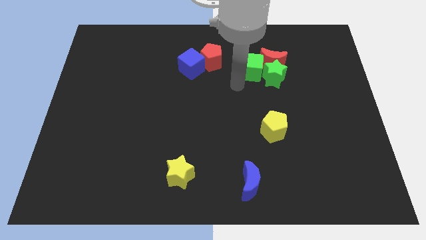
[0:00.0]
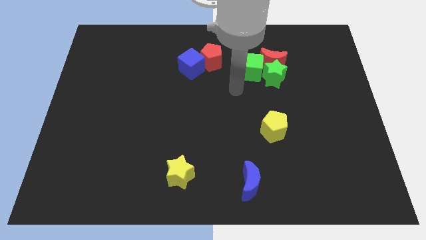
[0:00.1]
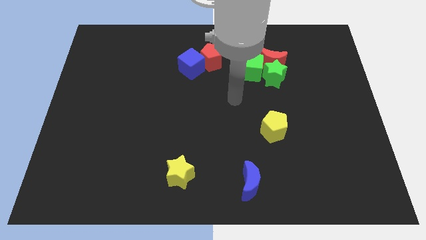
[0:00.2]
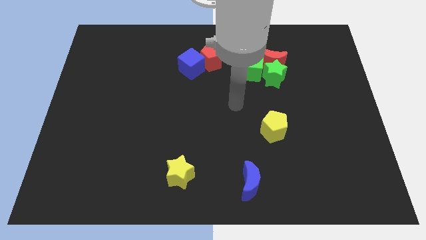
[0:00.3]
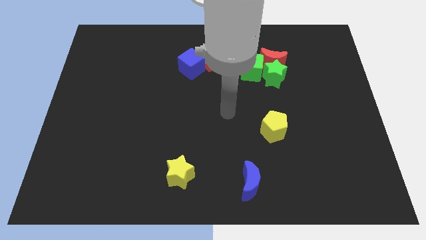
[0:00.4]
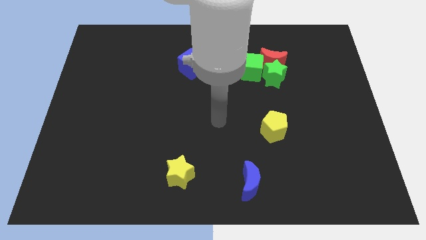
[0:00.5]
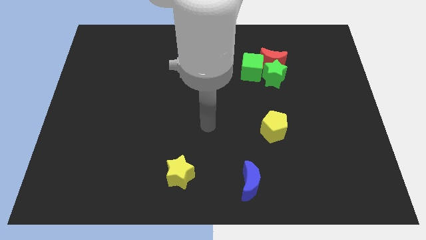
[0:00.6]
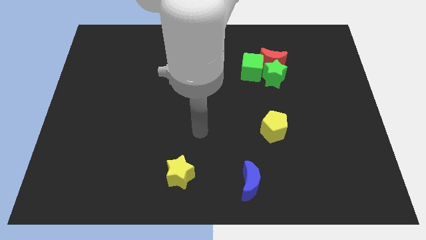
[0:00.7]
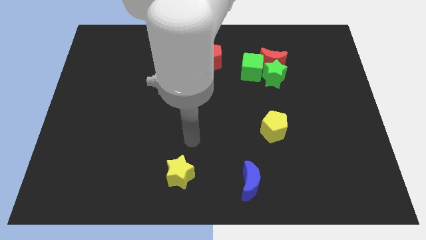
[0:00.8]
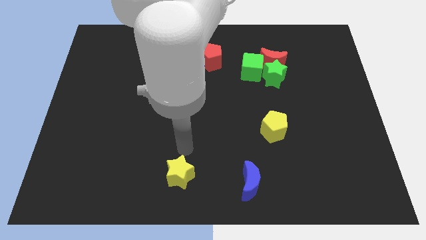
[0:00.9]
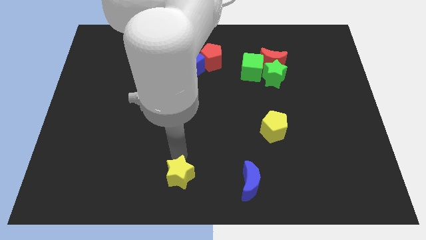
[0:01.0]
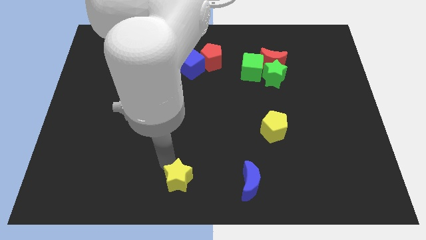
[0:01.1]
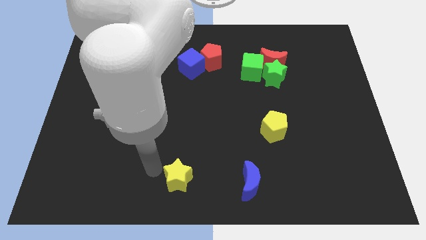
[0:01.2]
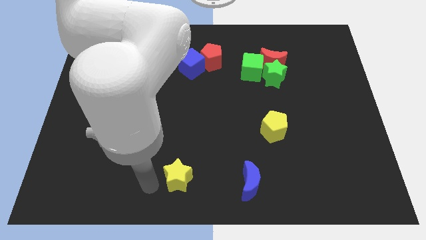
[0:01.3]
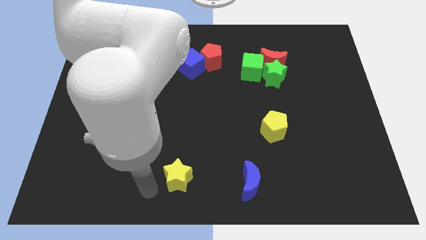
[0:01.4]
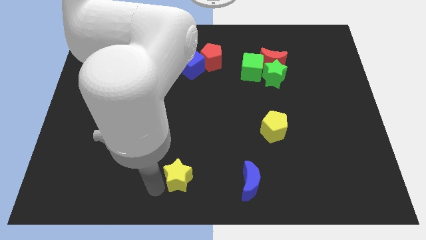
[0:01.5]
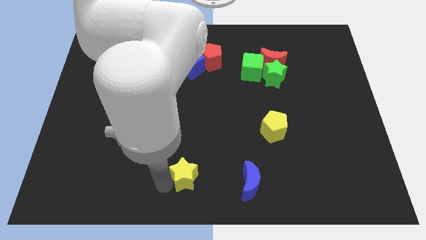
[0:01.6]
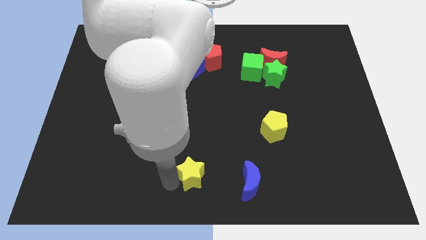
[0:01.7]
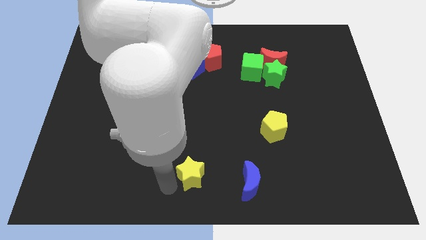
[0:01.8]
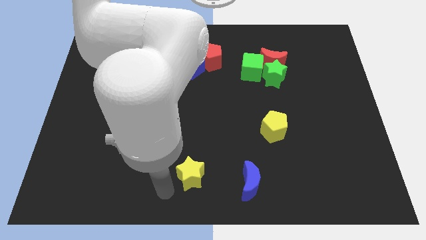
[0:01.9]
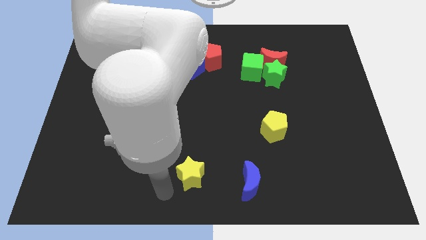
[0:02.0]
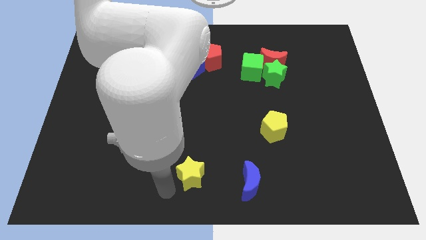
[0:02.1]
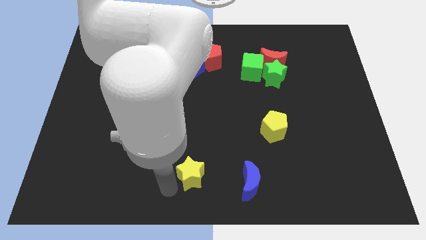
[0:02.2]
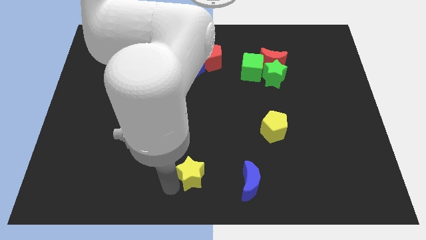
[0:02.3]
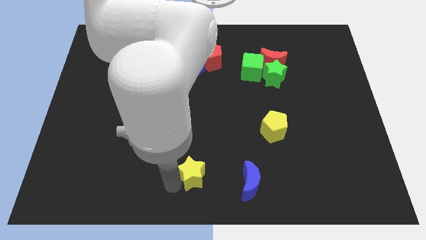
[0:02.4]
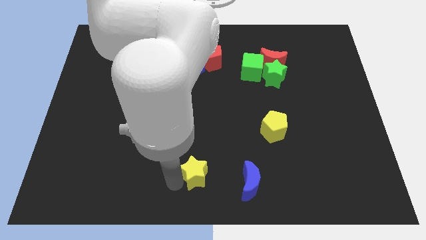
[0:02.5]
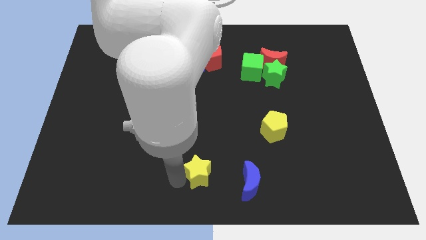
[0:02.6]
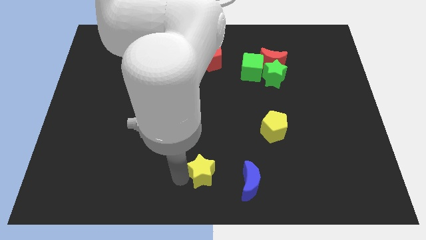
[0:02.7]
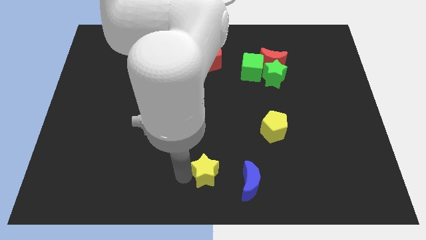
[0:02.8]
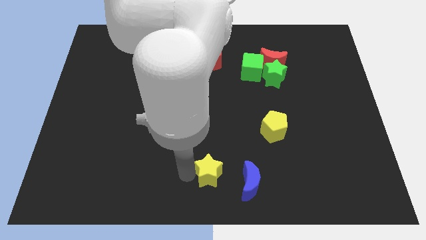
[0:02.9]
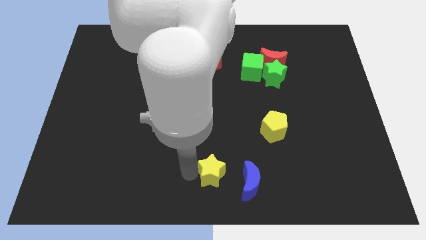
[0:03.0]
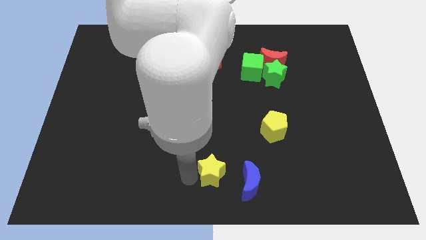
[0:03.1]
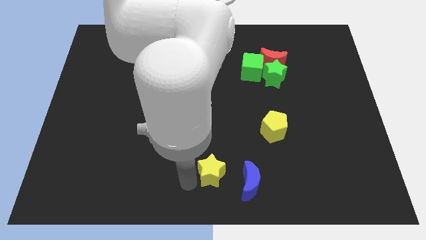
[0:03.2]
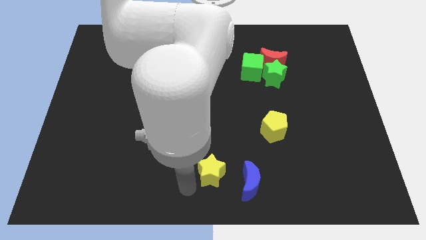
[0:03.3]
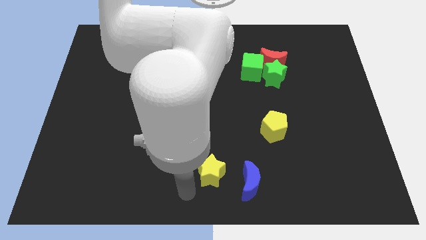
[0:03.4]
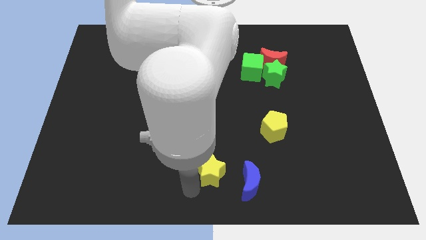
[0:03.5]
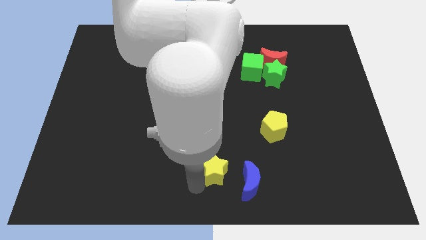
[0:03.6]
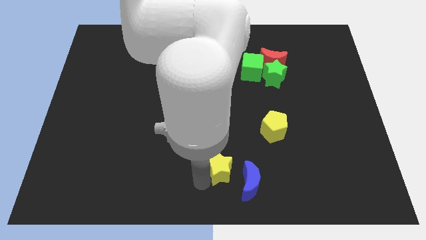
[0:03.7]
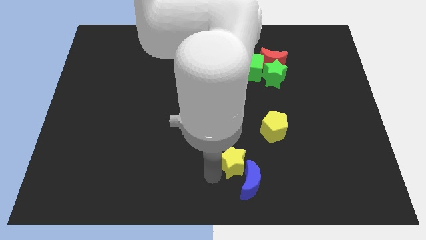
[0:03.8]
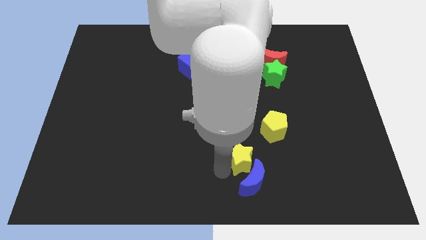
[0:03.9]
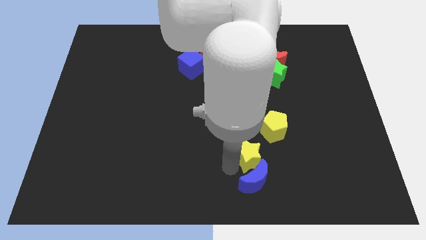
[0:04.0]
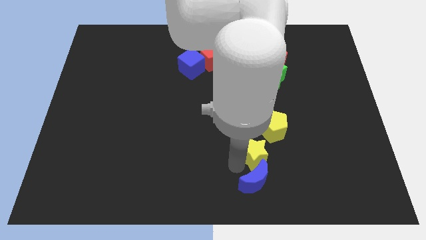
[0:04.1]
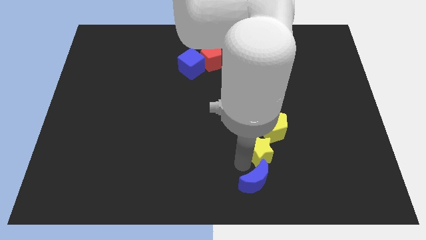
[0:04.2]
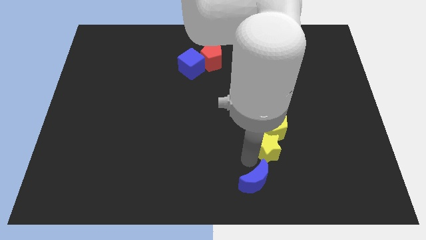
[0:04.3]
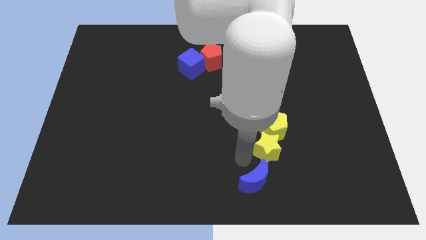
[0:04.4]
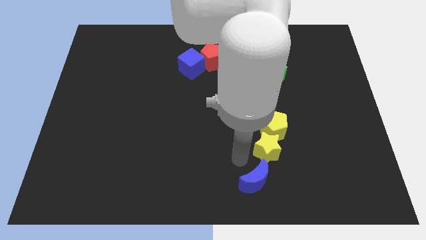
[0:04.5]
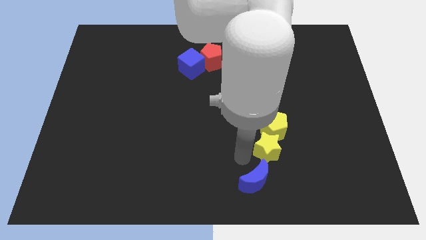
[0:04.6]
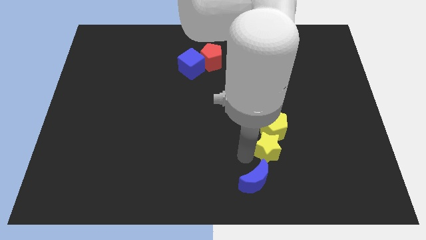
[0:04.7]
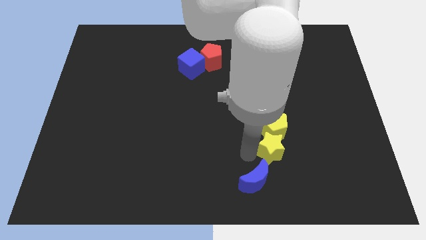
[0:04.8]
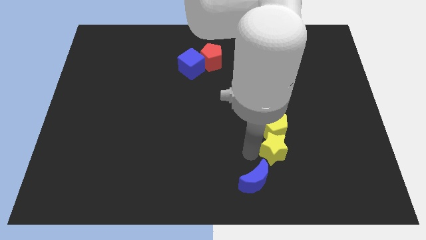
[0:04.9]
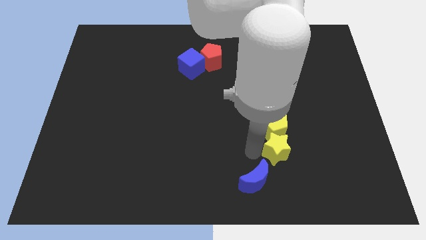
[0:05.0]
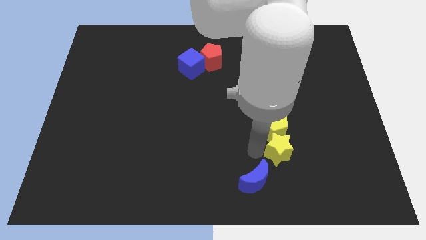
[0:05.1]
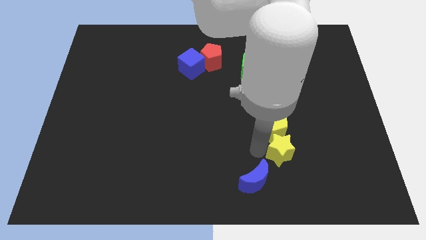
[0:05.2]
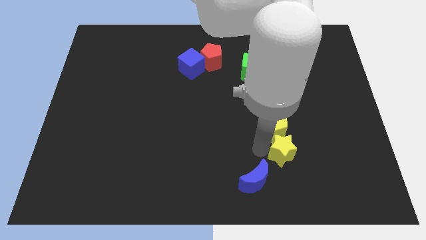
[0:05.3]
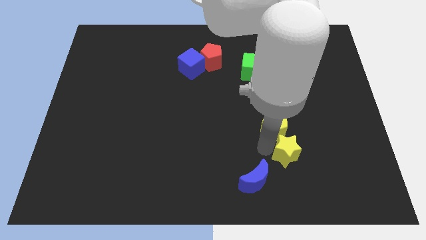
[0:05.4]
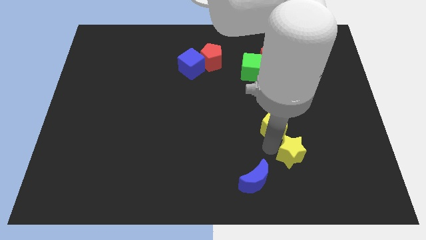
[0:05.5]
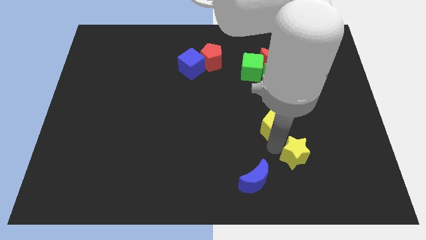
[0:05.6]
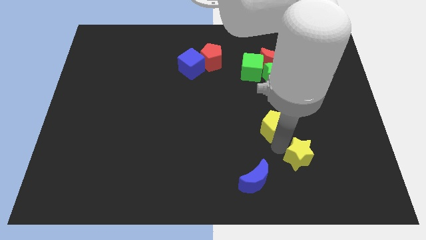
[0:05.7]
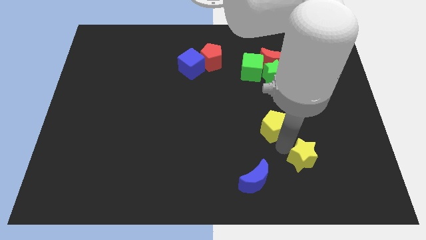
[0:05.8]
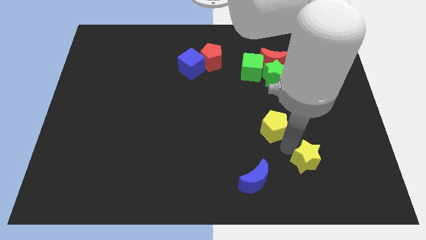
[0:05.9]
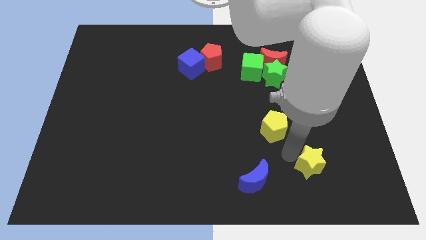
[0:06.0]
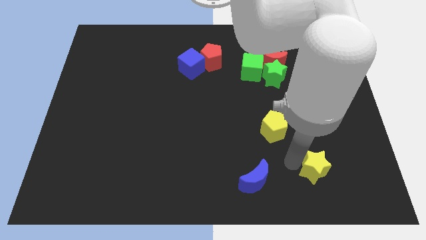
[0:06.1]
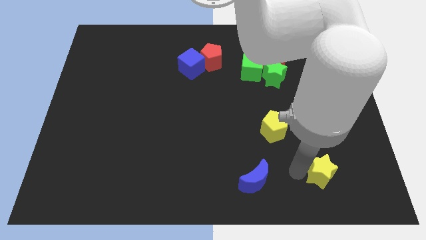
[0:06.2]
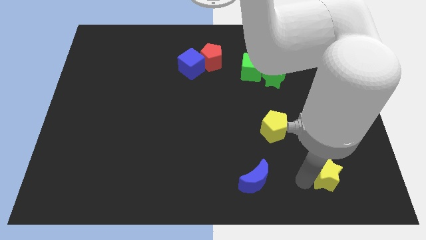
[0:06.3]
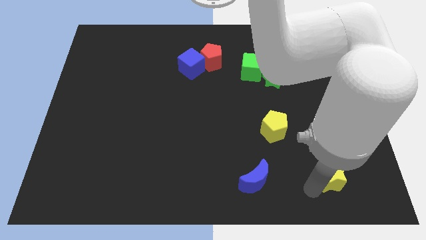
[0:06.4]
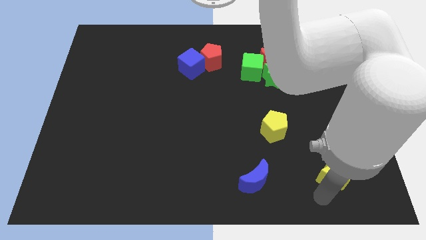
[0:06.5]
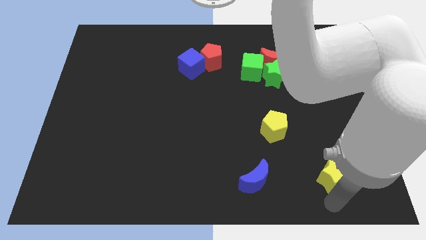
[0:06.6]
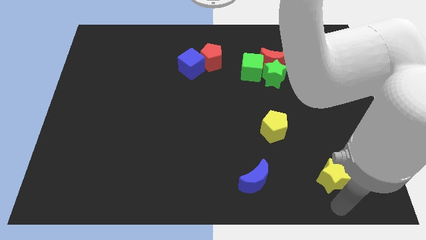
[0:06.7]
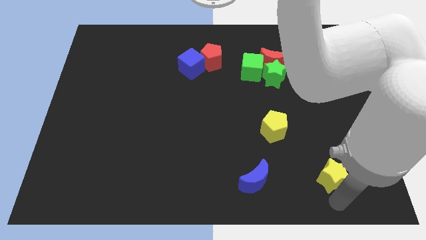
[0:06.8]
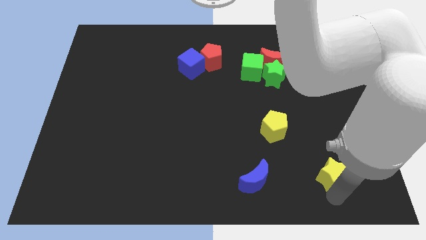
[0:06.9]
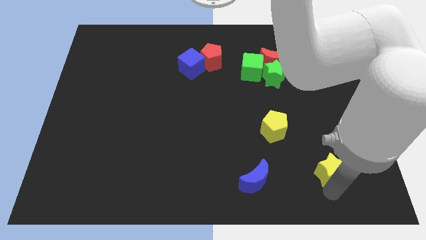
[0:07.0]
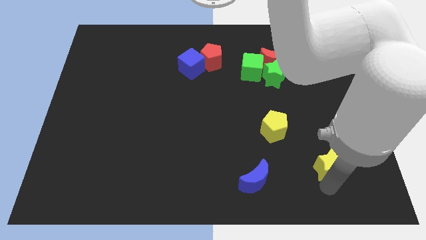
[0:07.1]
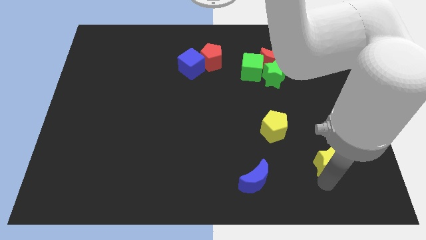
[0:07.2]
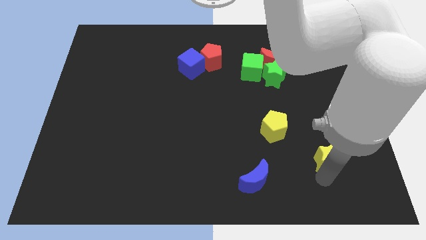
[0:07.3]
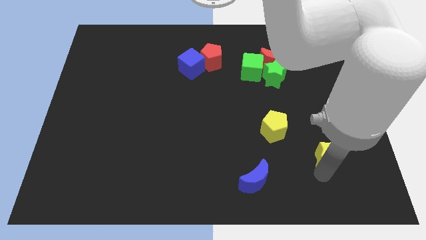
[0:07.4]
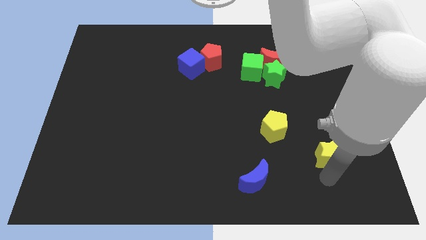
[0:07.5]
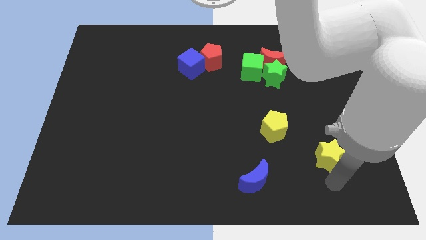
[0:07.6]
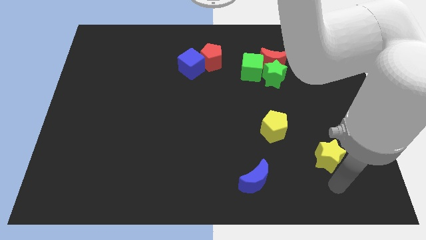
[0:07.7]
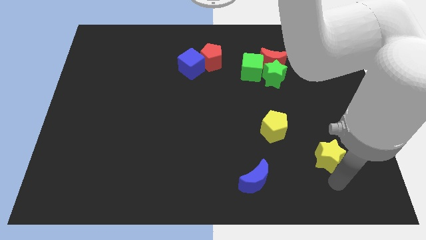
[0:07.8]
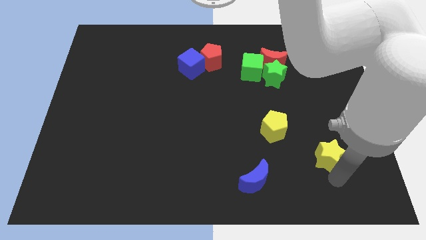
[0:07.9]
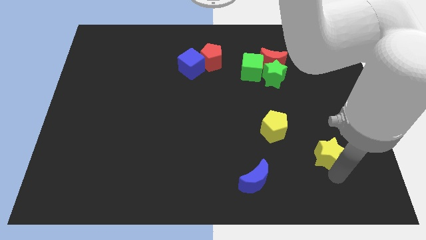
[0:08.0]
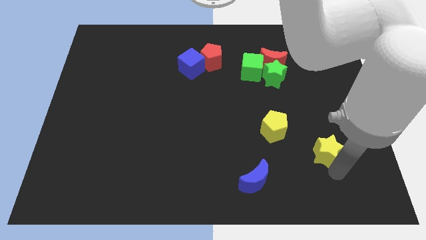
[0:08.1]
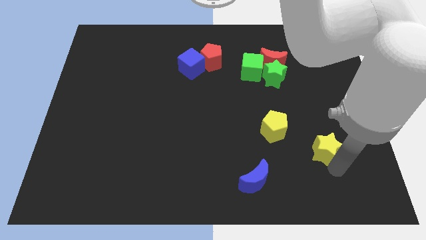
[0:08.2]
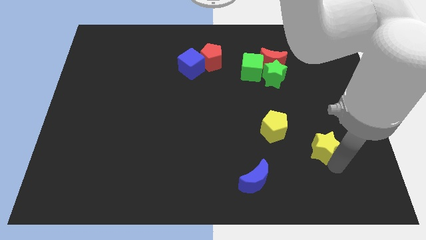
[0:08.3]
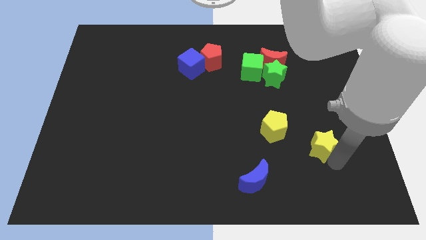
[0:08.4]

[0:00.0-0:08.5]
put the yellow star just right of the yellow pentagon
